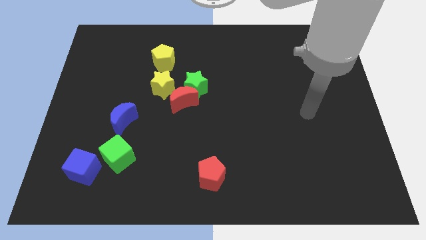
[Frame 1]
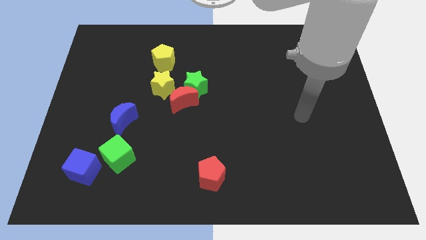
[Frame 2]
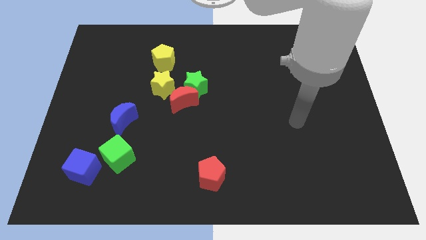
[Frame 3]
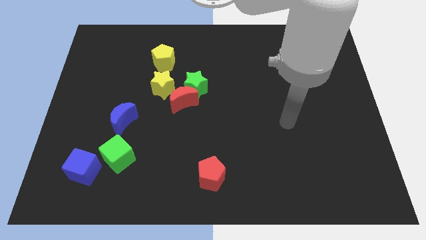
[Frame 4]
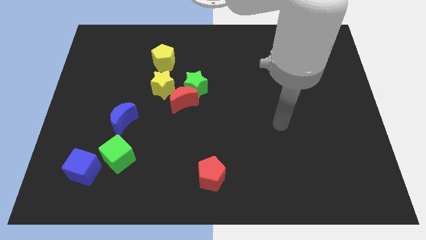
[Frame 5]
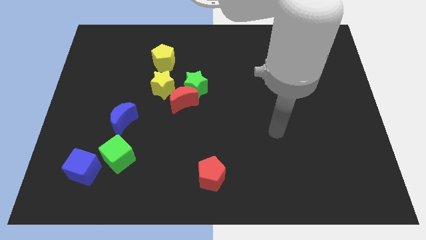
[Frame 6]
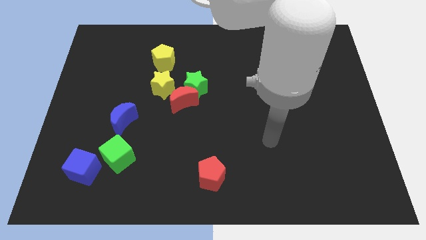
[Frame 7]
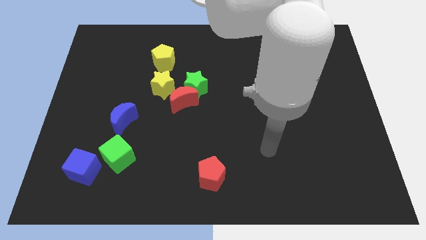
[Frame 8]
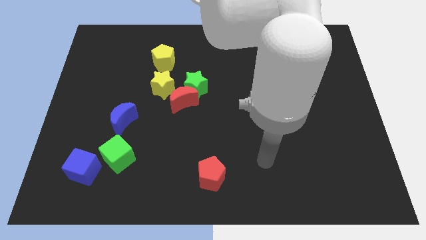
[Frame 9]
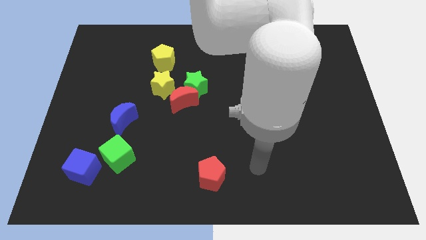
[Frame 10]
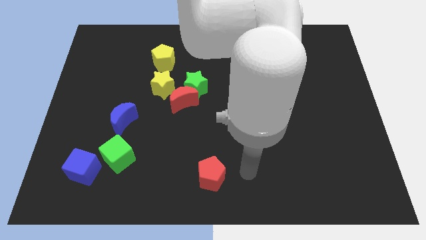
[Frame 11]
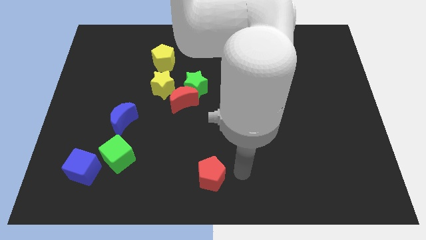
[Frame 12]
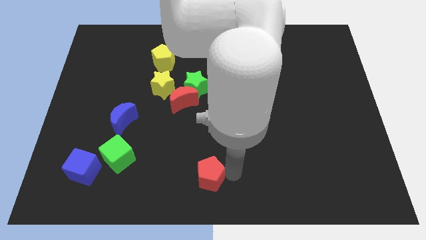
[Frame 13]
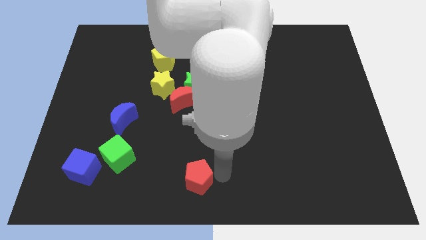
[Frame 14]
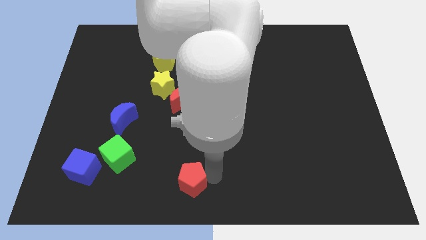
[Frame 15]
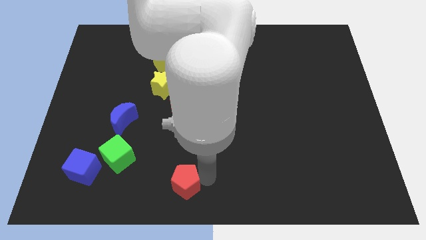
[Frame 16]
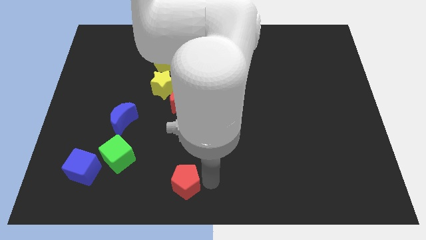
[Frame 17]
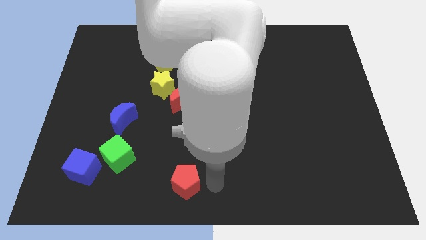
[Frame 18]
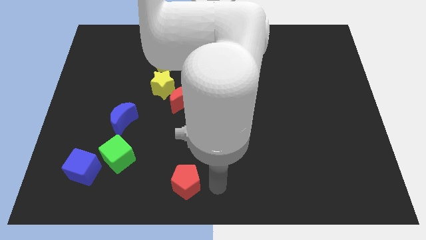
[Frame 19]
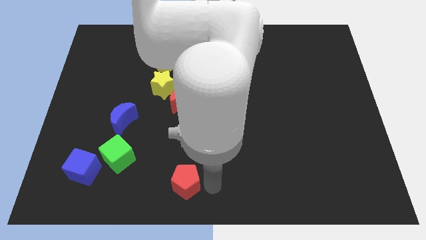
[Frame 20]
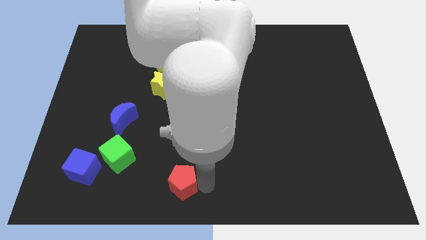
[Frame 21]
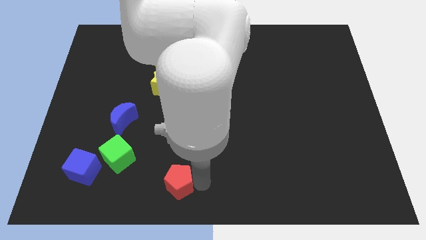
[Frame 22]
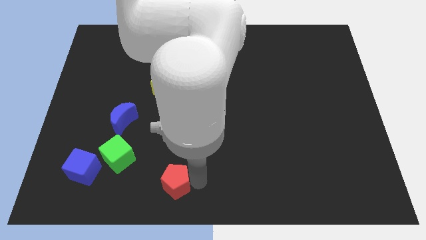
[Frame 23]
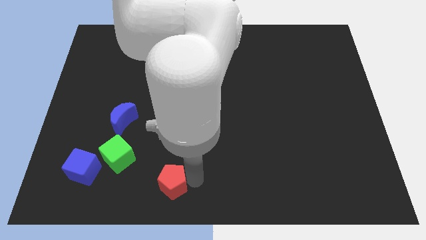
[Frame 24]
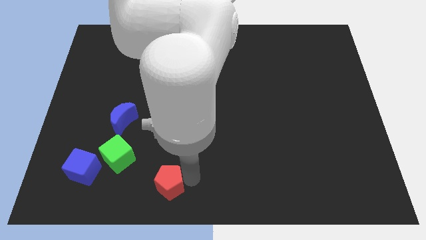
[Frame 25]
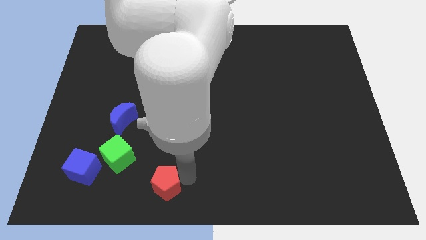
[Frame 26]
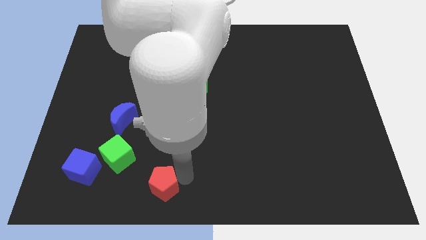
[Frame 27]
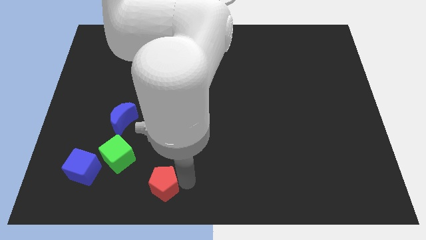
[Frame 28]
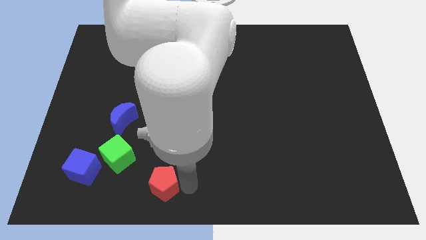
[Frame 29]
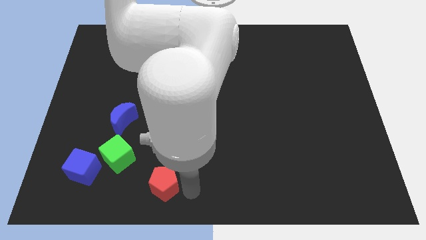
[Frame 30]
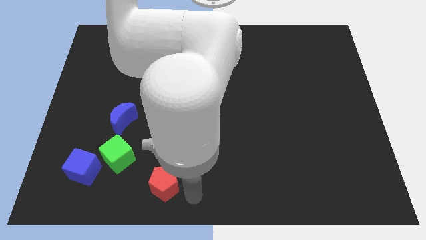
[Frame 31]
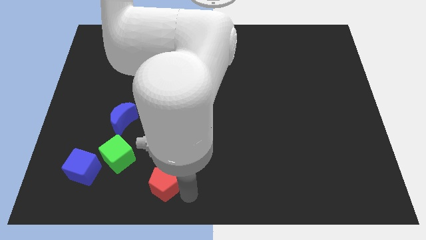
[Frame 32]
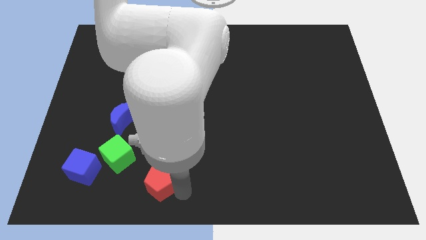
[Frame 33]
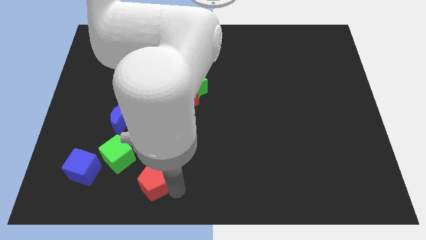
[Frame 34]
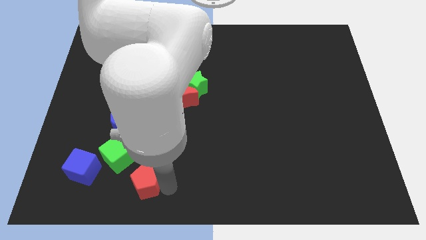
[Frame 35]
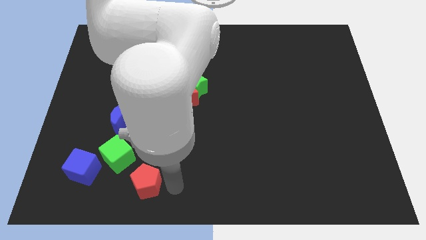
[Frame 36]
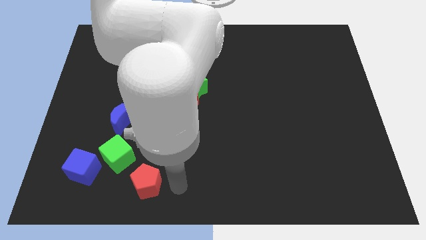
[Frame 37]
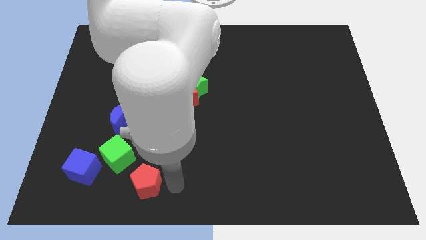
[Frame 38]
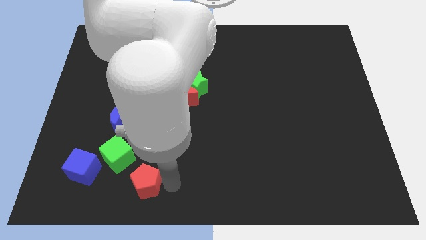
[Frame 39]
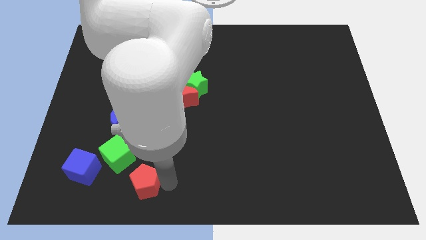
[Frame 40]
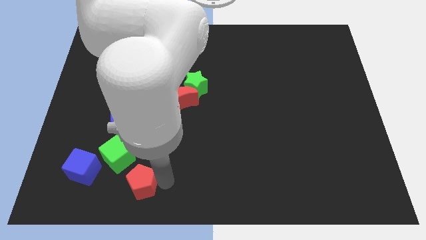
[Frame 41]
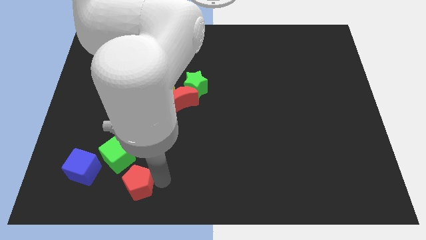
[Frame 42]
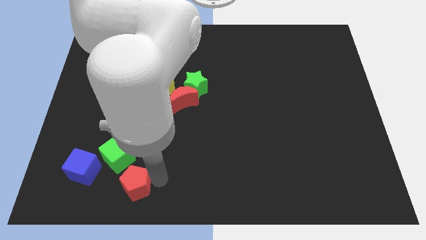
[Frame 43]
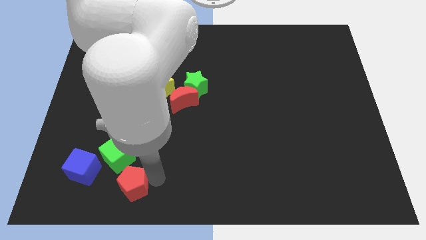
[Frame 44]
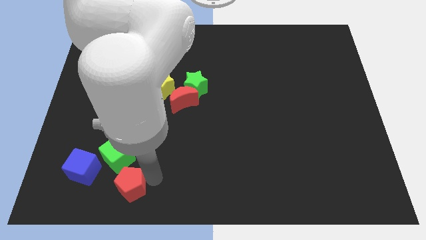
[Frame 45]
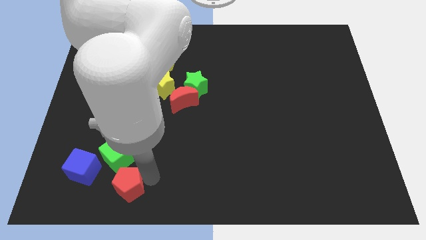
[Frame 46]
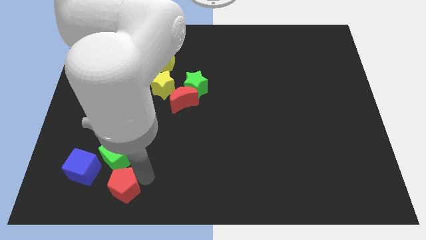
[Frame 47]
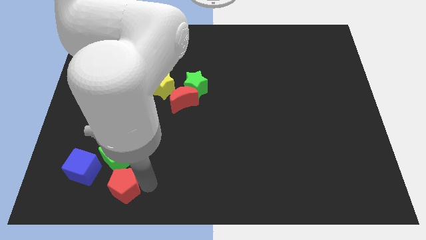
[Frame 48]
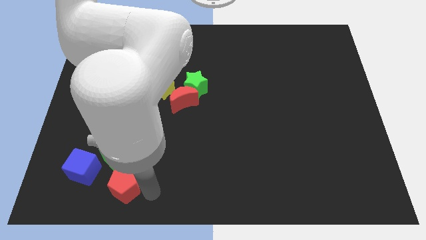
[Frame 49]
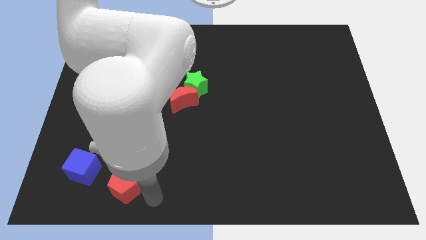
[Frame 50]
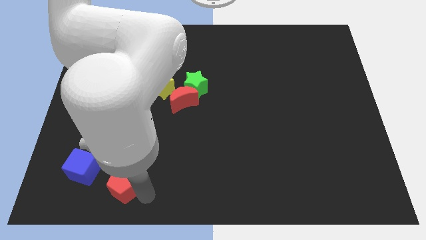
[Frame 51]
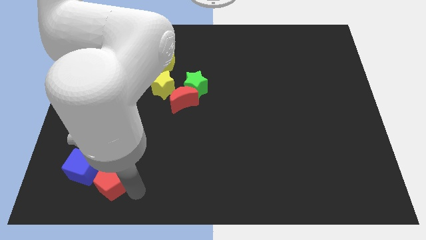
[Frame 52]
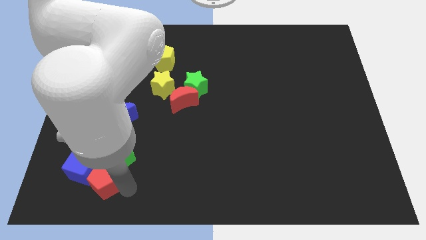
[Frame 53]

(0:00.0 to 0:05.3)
put the red pentagon close to the blue cube

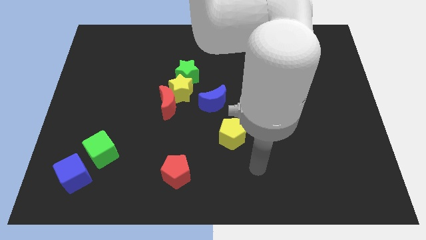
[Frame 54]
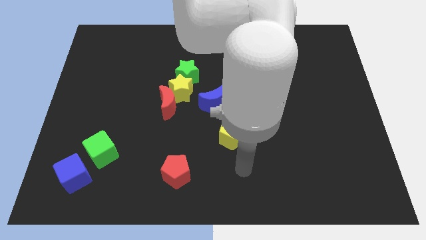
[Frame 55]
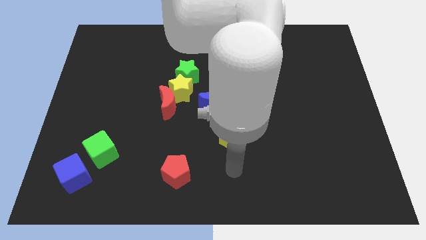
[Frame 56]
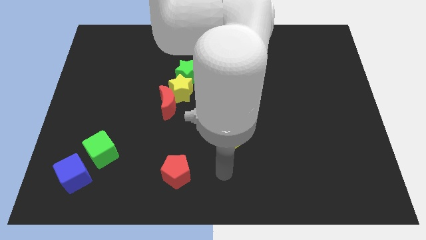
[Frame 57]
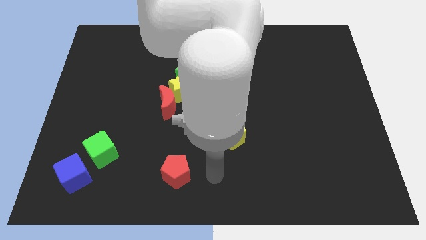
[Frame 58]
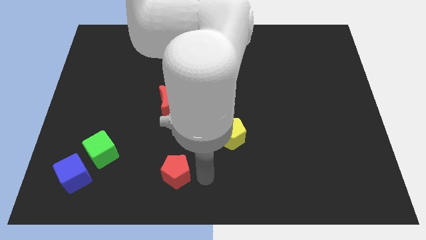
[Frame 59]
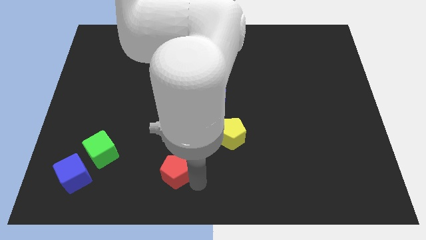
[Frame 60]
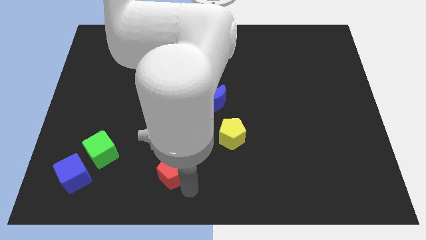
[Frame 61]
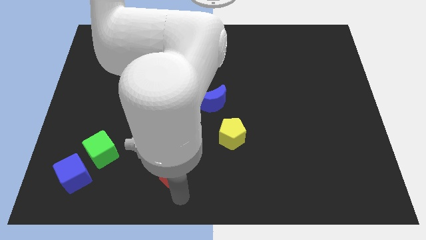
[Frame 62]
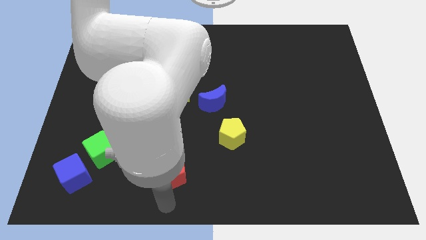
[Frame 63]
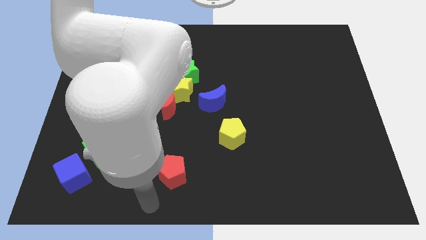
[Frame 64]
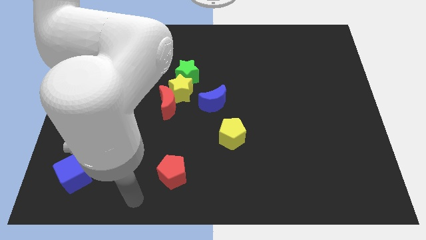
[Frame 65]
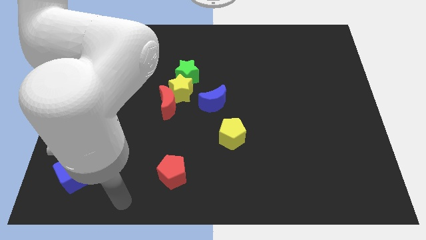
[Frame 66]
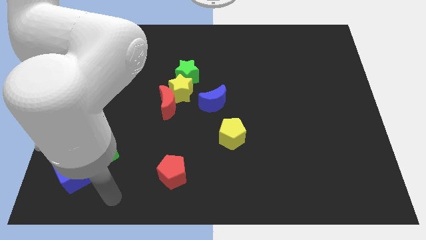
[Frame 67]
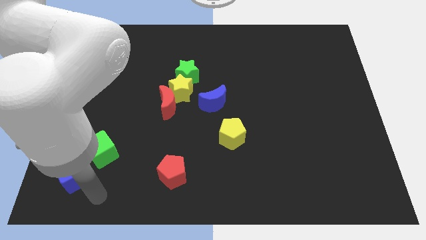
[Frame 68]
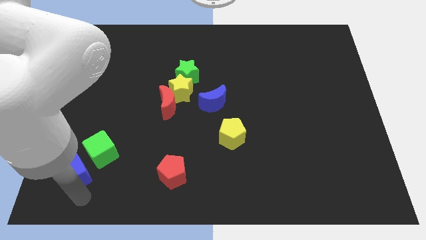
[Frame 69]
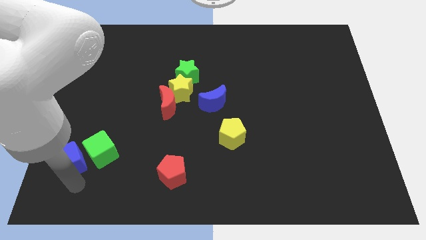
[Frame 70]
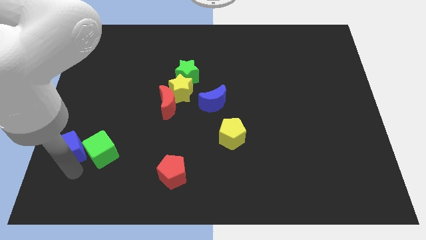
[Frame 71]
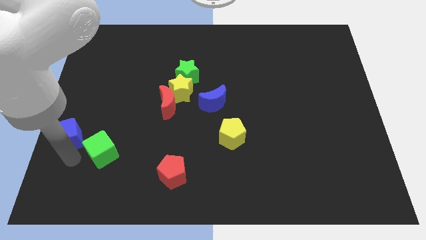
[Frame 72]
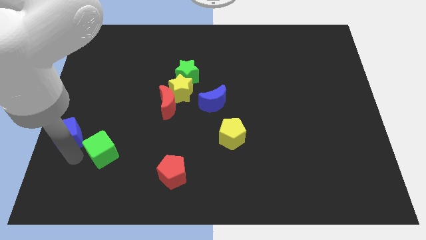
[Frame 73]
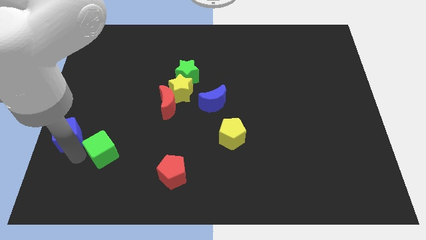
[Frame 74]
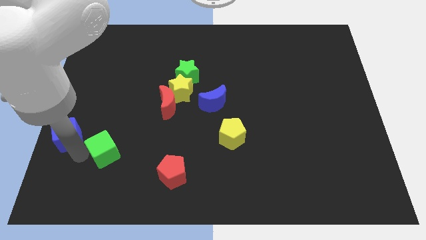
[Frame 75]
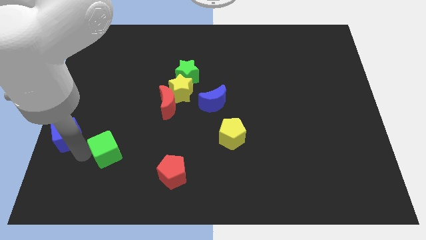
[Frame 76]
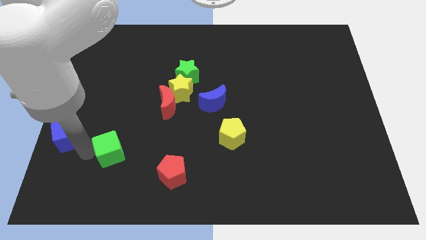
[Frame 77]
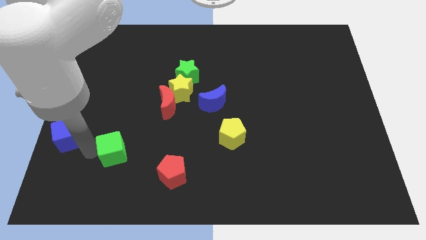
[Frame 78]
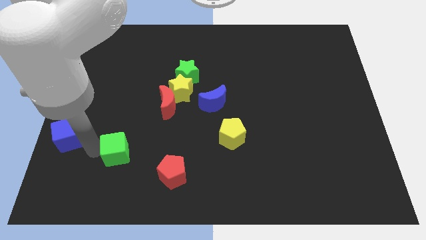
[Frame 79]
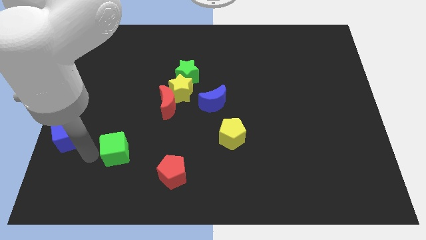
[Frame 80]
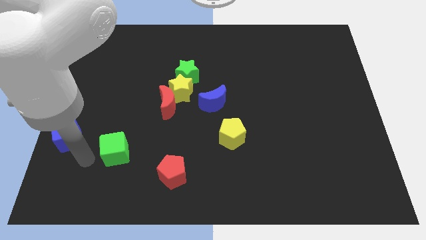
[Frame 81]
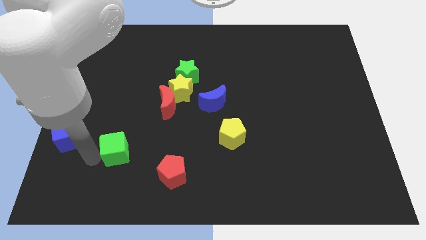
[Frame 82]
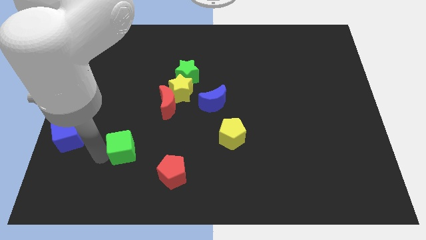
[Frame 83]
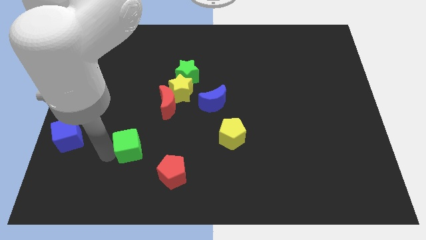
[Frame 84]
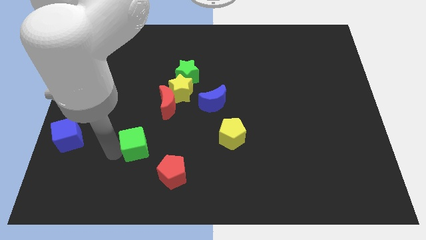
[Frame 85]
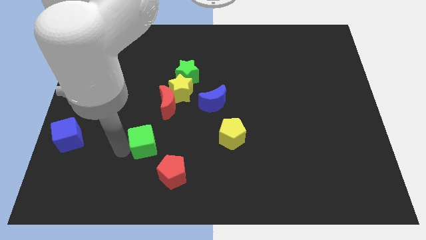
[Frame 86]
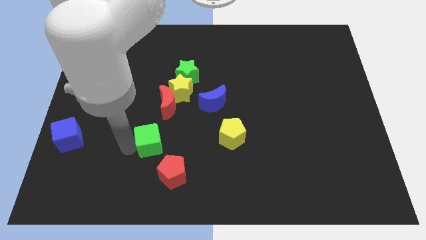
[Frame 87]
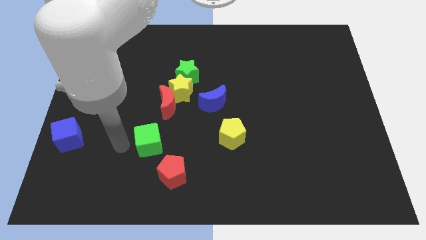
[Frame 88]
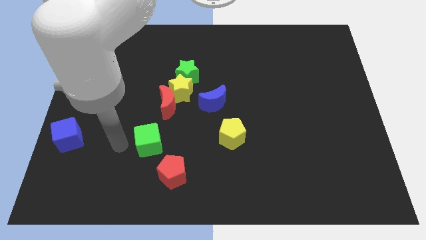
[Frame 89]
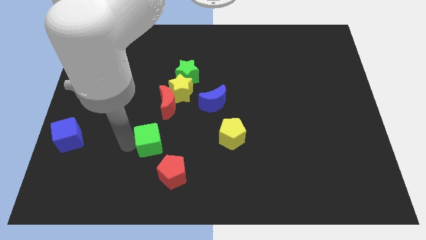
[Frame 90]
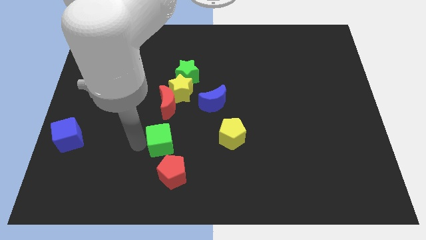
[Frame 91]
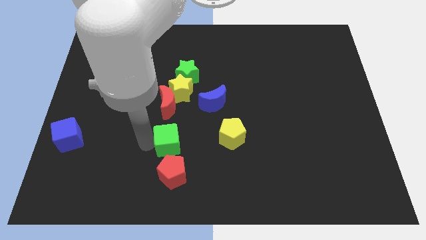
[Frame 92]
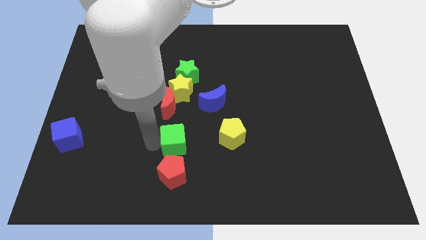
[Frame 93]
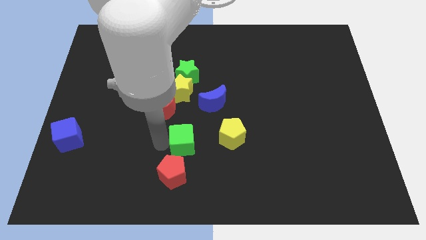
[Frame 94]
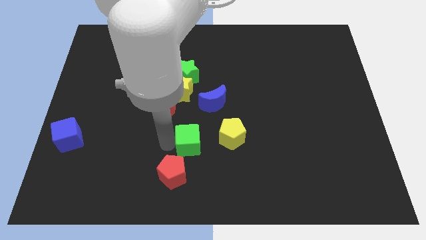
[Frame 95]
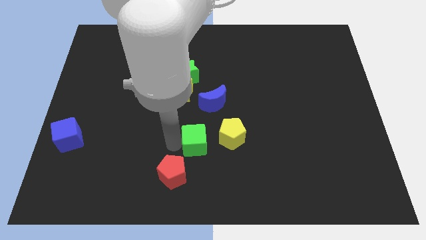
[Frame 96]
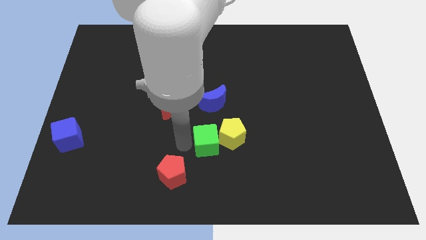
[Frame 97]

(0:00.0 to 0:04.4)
put the green cube close to the yellow pentagon
